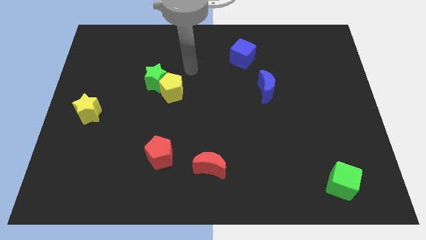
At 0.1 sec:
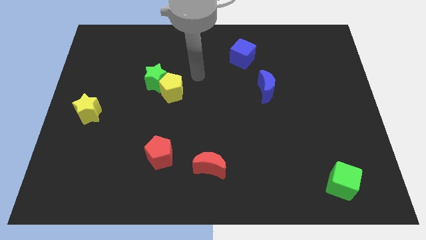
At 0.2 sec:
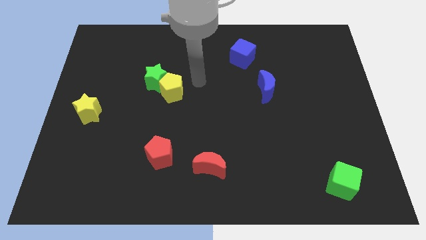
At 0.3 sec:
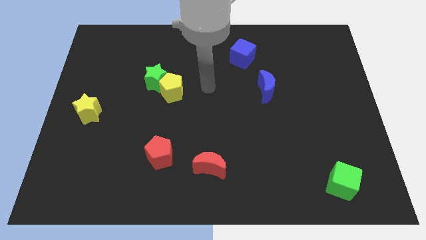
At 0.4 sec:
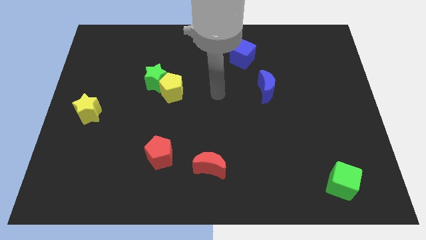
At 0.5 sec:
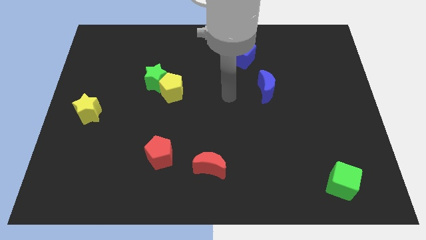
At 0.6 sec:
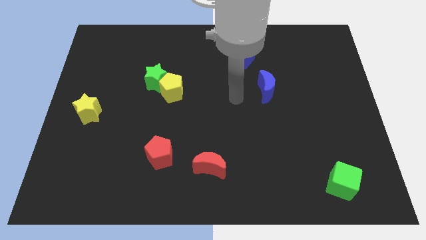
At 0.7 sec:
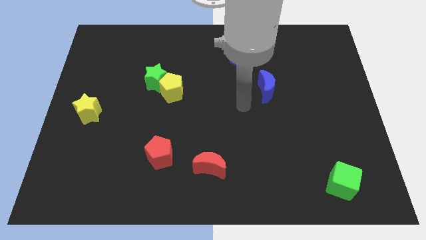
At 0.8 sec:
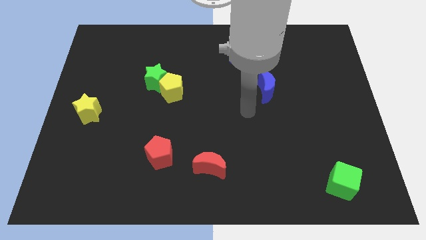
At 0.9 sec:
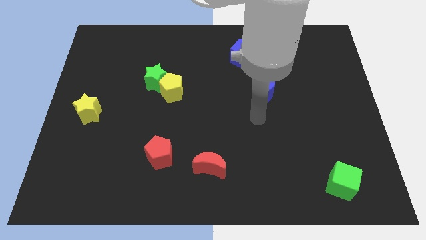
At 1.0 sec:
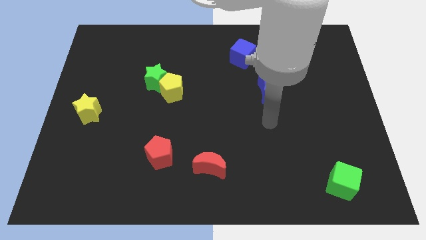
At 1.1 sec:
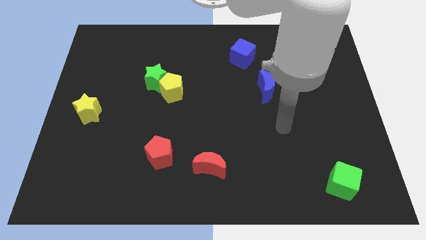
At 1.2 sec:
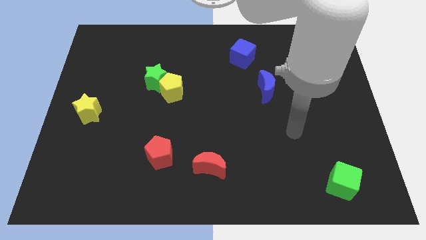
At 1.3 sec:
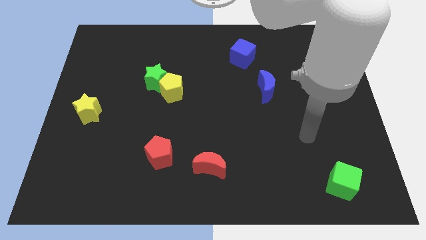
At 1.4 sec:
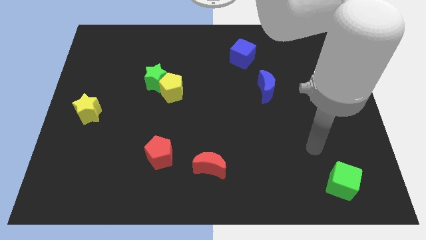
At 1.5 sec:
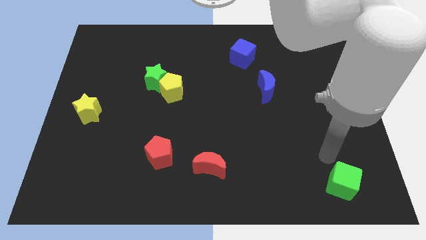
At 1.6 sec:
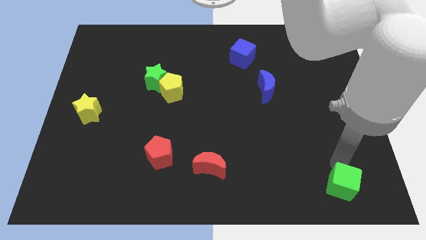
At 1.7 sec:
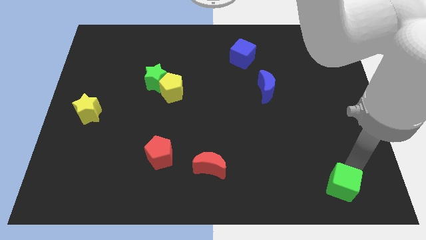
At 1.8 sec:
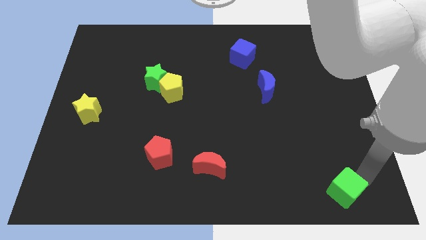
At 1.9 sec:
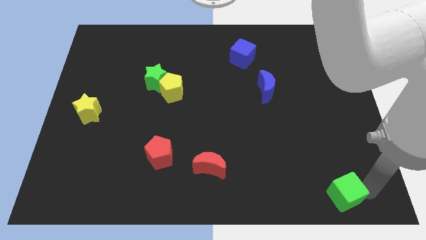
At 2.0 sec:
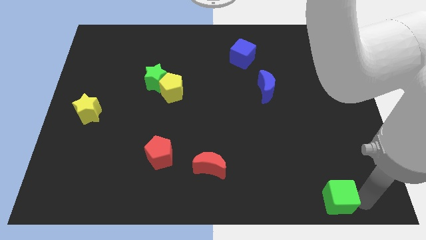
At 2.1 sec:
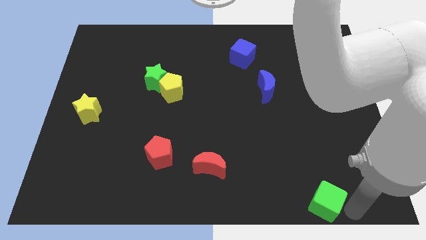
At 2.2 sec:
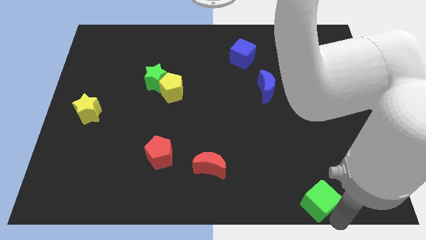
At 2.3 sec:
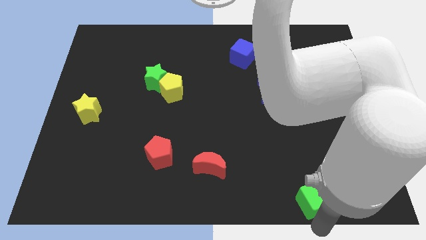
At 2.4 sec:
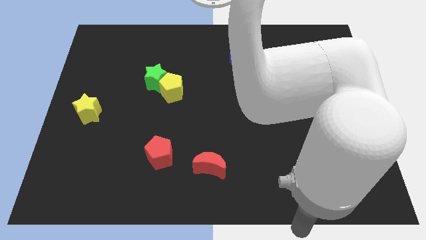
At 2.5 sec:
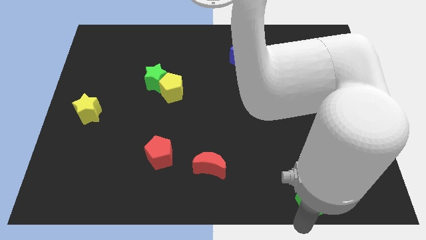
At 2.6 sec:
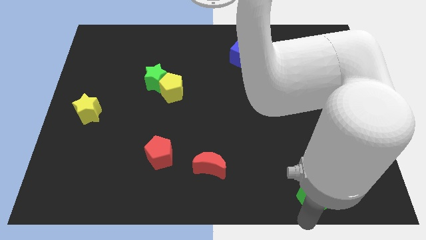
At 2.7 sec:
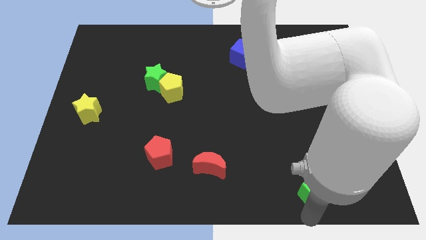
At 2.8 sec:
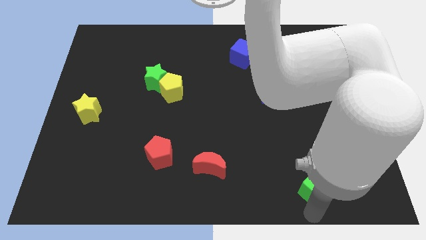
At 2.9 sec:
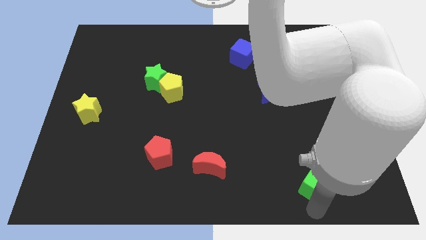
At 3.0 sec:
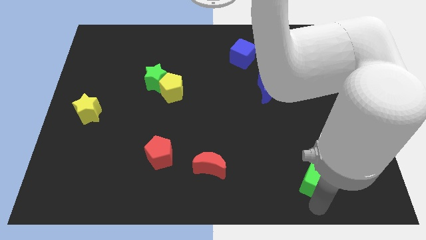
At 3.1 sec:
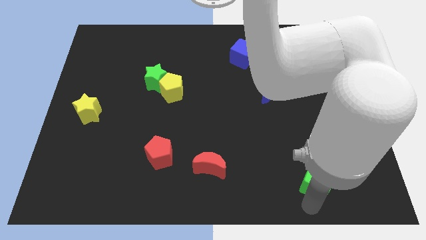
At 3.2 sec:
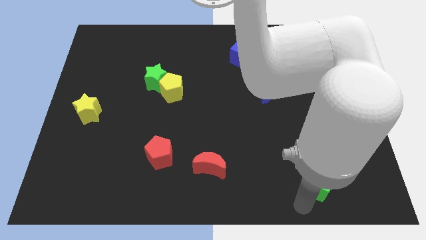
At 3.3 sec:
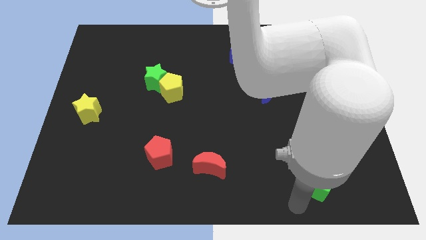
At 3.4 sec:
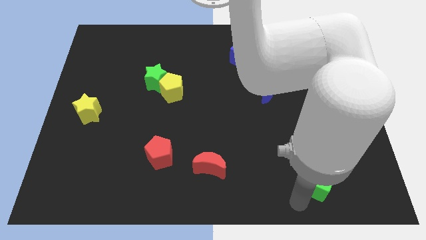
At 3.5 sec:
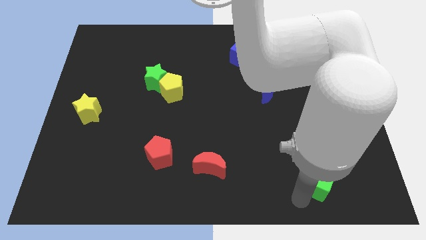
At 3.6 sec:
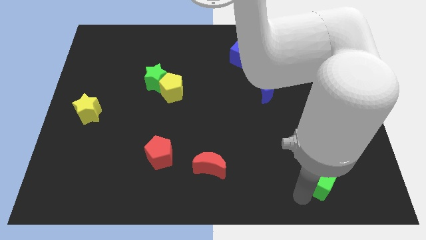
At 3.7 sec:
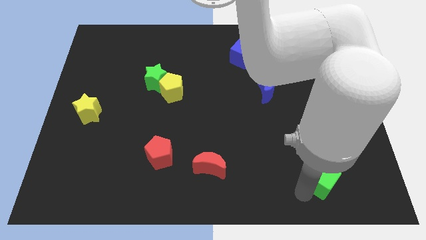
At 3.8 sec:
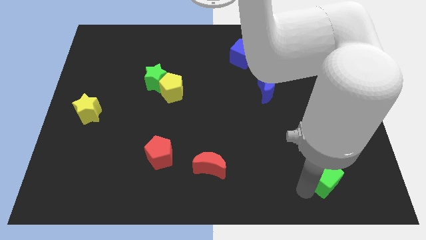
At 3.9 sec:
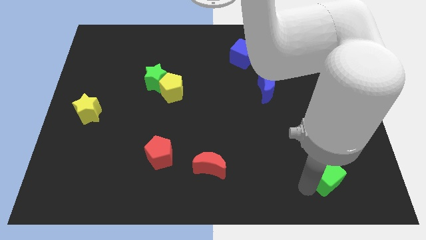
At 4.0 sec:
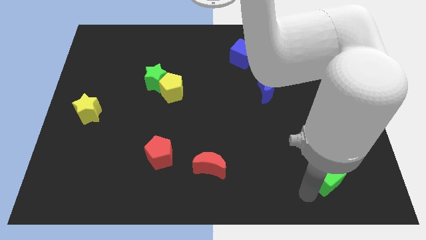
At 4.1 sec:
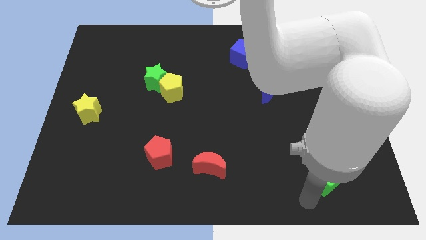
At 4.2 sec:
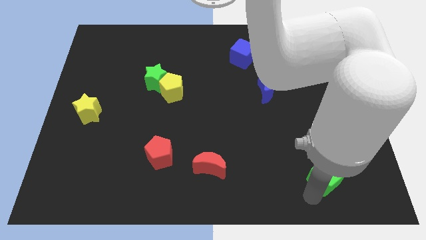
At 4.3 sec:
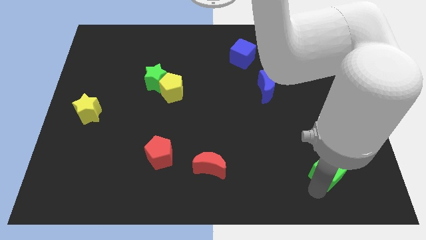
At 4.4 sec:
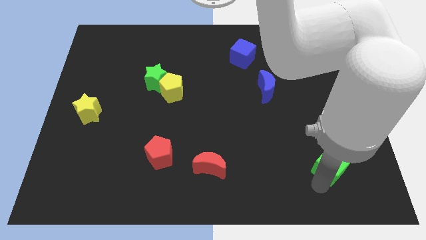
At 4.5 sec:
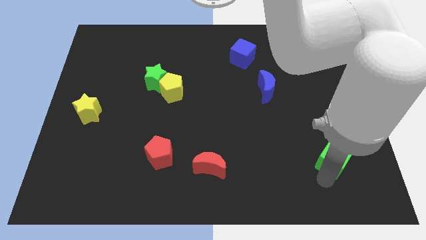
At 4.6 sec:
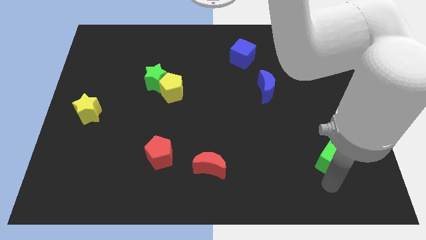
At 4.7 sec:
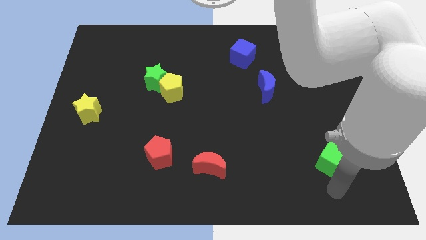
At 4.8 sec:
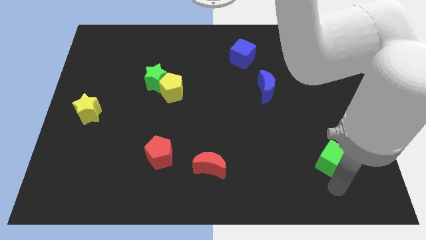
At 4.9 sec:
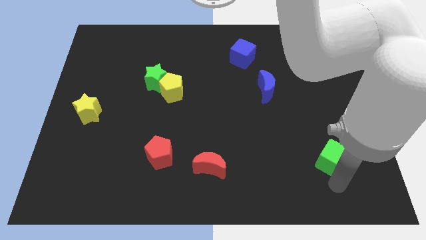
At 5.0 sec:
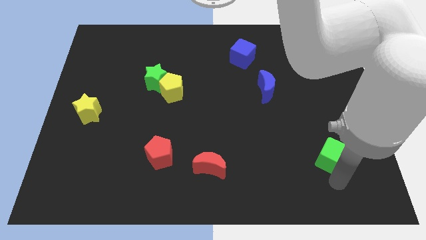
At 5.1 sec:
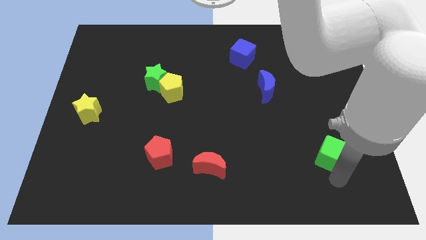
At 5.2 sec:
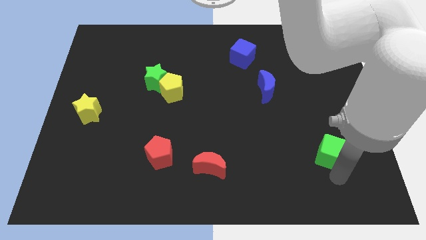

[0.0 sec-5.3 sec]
push the green cube upwards a little

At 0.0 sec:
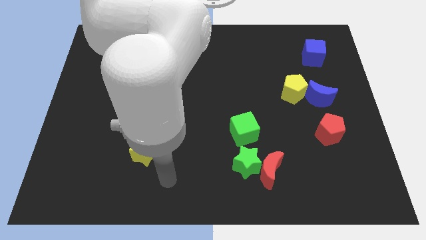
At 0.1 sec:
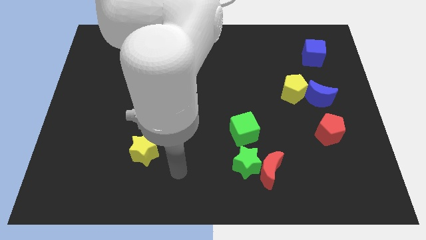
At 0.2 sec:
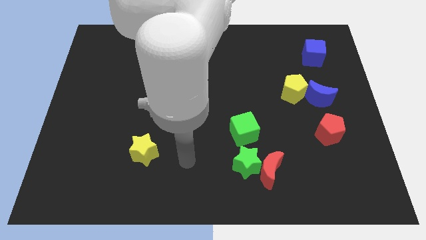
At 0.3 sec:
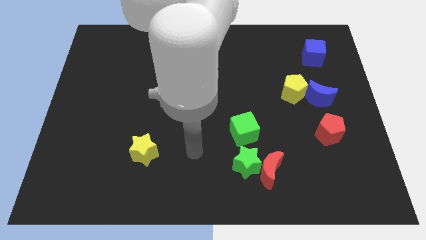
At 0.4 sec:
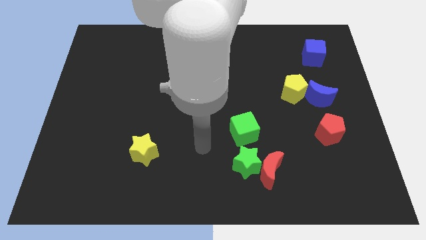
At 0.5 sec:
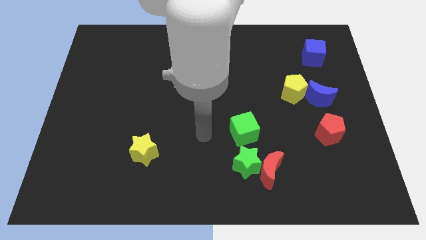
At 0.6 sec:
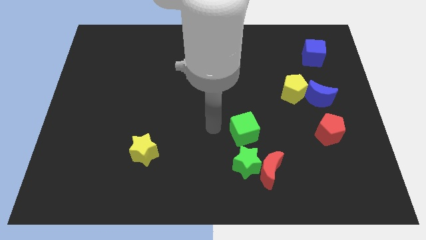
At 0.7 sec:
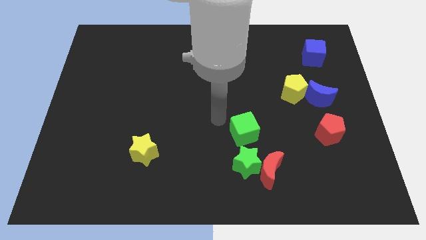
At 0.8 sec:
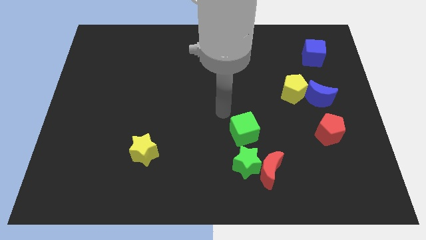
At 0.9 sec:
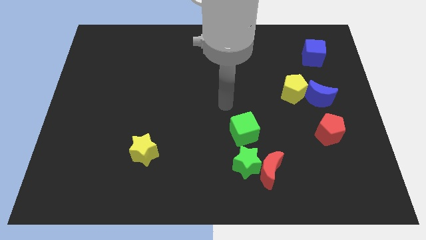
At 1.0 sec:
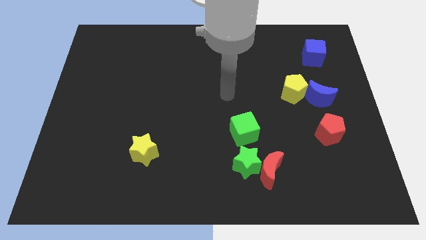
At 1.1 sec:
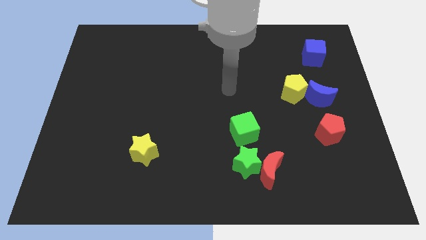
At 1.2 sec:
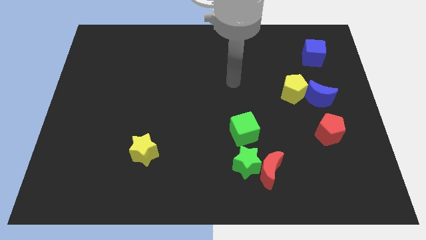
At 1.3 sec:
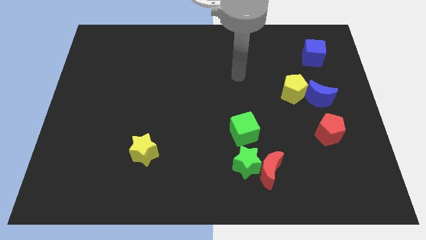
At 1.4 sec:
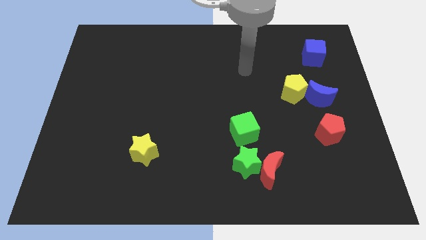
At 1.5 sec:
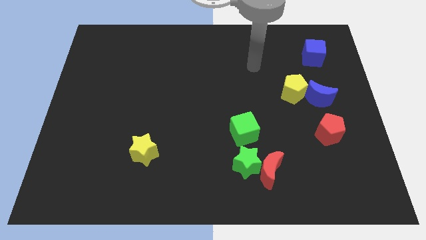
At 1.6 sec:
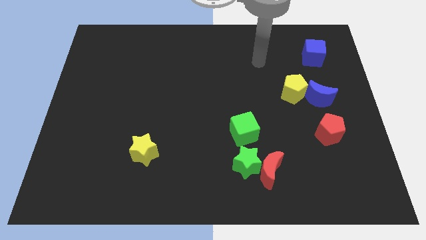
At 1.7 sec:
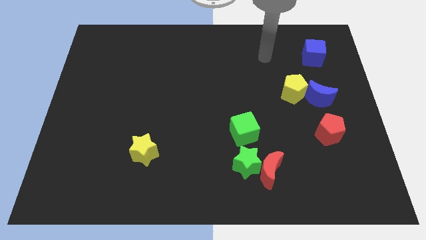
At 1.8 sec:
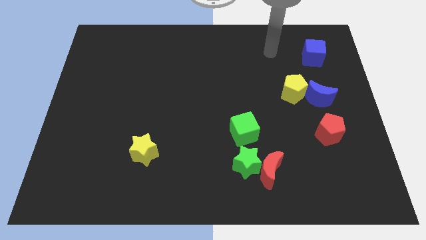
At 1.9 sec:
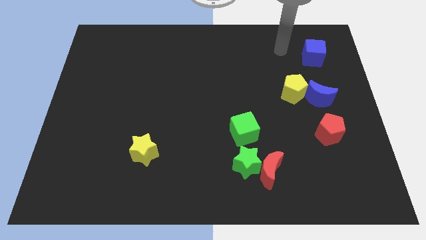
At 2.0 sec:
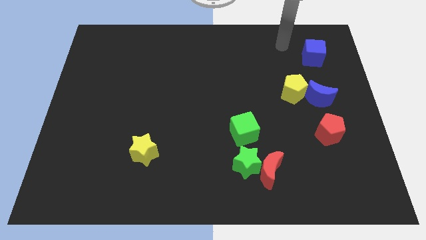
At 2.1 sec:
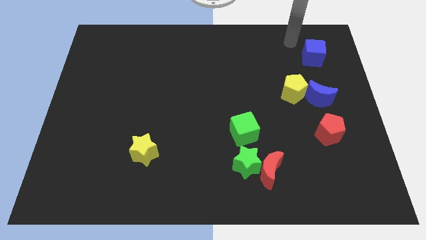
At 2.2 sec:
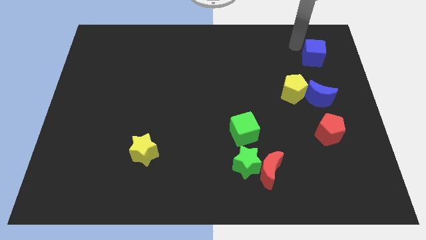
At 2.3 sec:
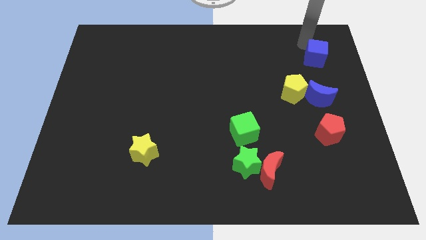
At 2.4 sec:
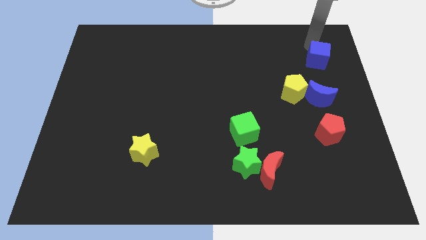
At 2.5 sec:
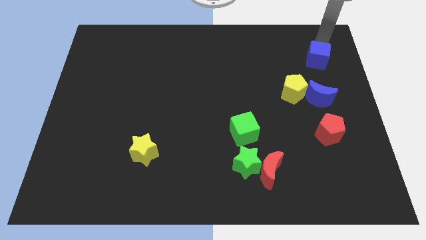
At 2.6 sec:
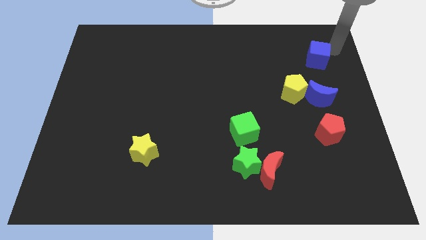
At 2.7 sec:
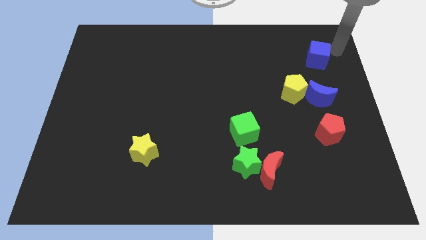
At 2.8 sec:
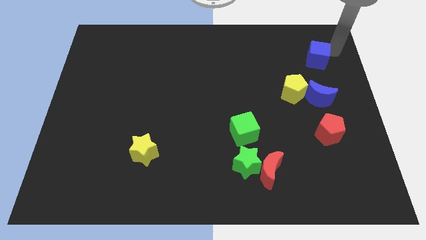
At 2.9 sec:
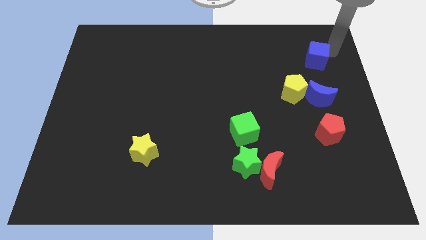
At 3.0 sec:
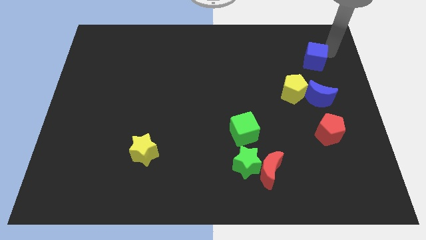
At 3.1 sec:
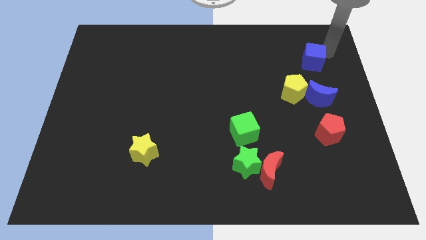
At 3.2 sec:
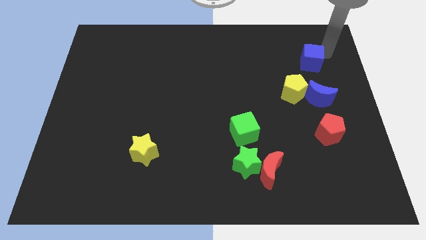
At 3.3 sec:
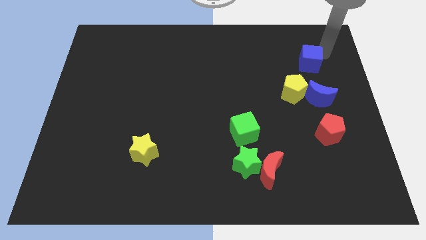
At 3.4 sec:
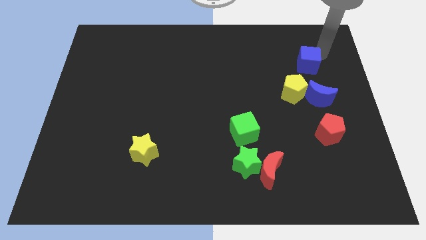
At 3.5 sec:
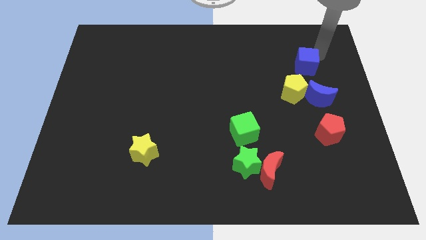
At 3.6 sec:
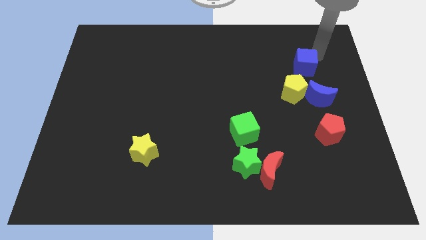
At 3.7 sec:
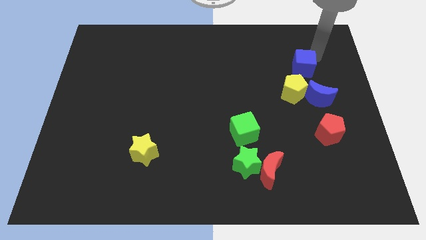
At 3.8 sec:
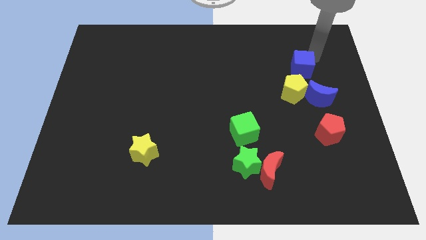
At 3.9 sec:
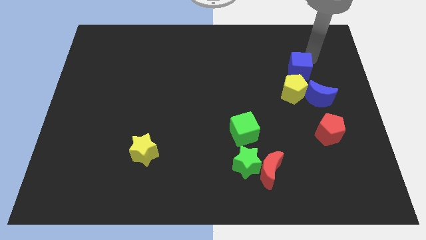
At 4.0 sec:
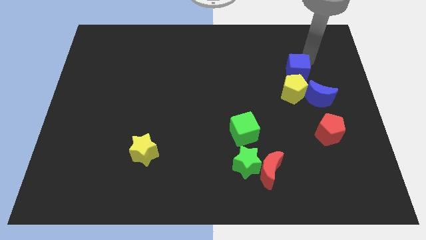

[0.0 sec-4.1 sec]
push the blue cube a little diagonally downwards and to the left
